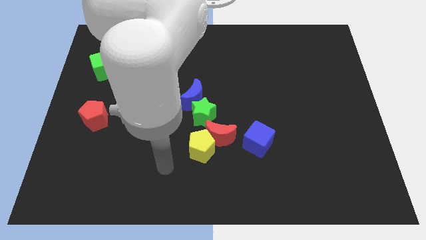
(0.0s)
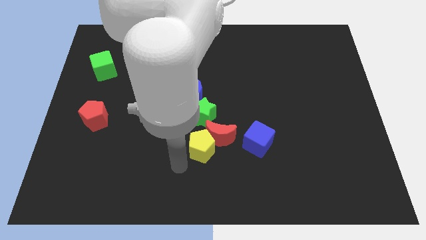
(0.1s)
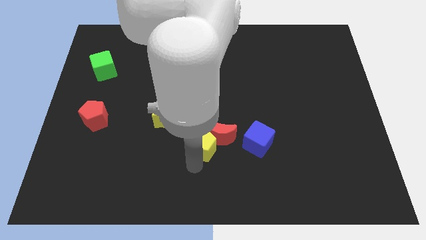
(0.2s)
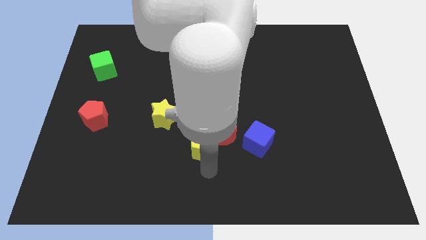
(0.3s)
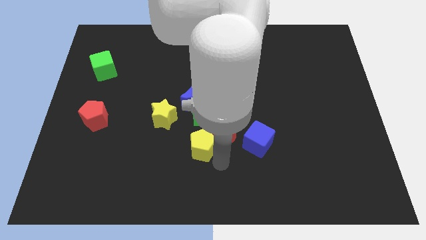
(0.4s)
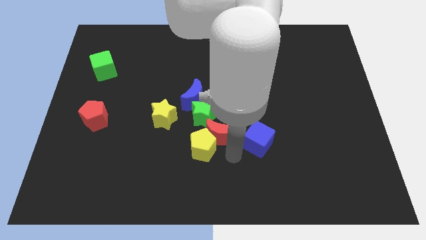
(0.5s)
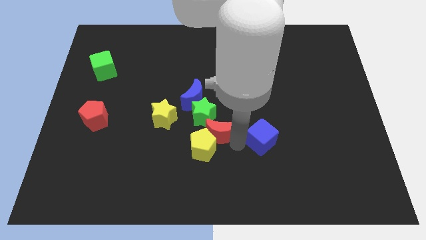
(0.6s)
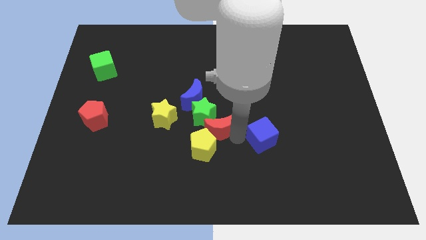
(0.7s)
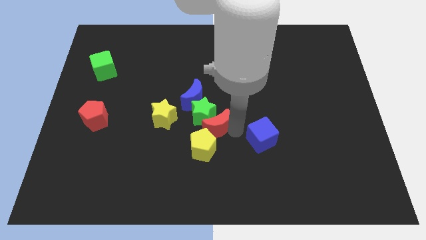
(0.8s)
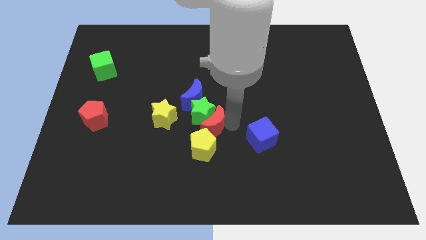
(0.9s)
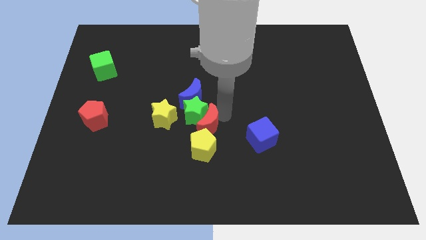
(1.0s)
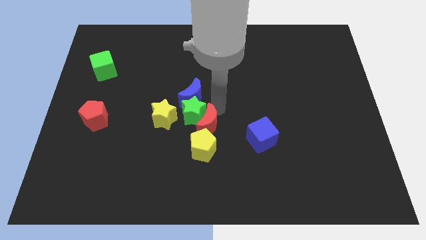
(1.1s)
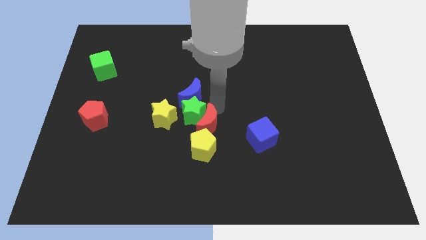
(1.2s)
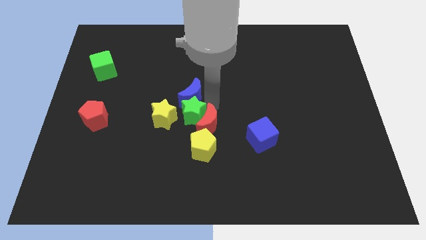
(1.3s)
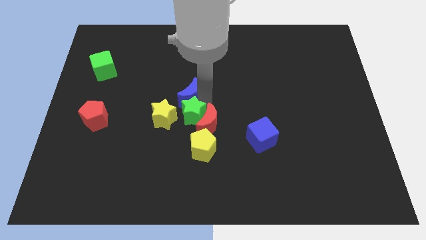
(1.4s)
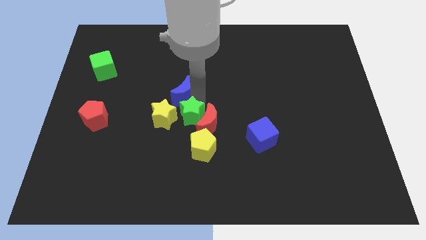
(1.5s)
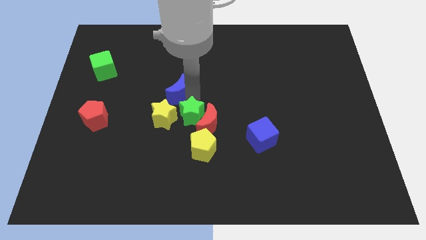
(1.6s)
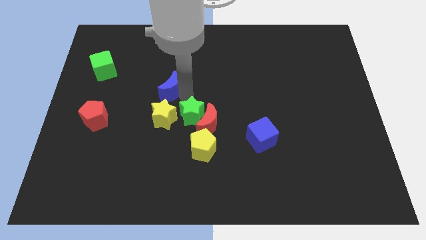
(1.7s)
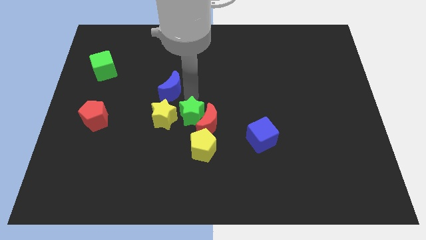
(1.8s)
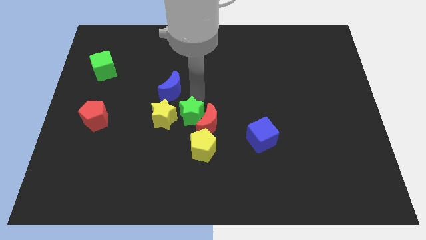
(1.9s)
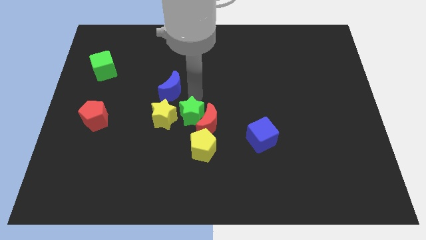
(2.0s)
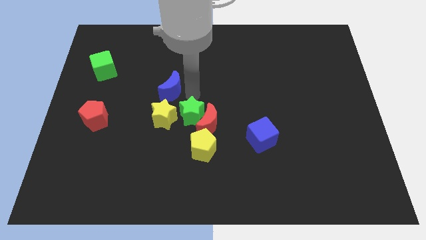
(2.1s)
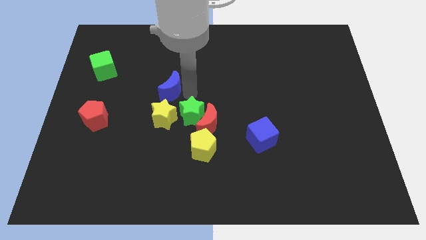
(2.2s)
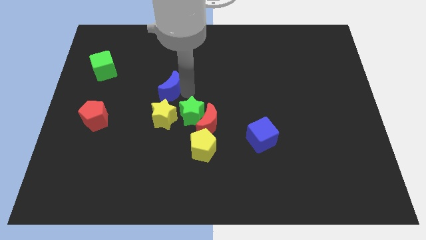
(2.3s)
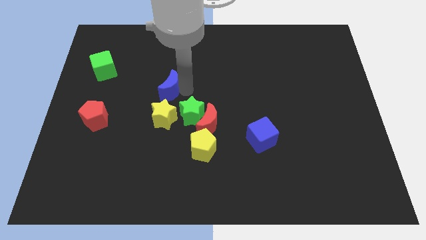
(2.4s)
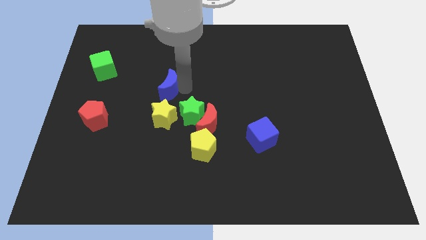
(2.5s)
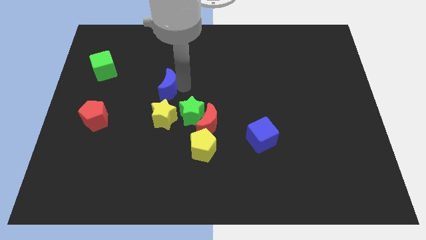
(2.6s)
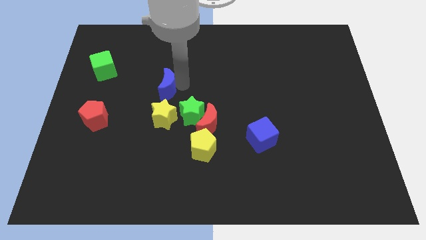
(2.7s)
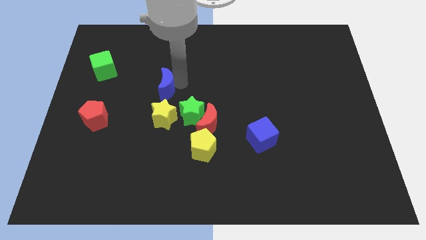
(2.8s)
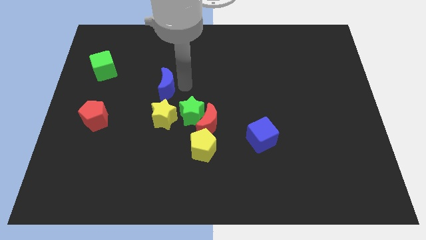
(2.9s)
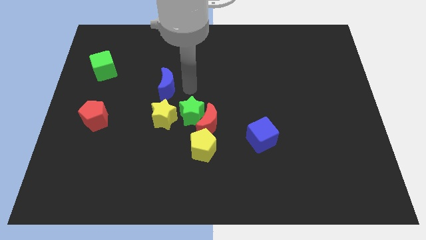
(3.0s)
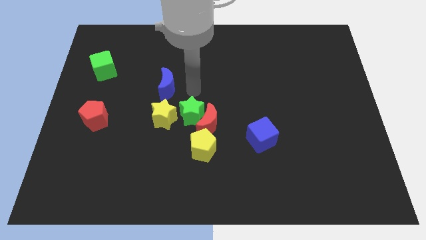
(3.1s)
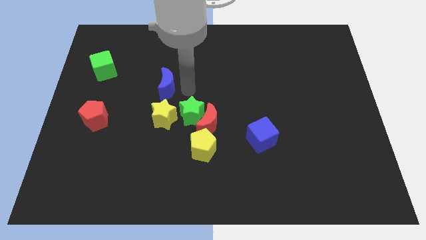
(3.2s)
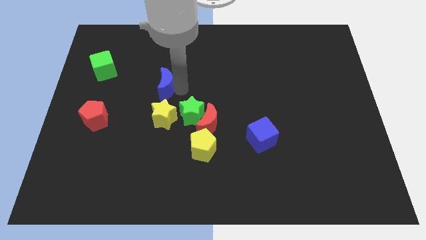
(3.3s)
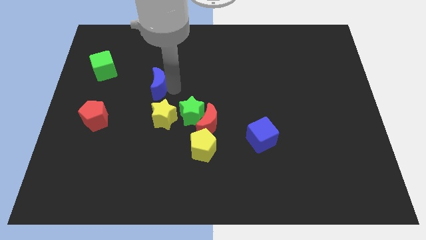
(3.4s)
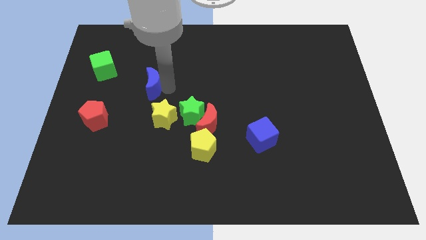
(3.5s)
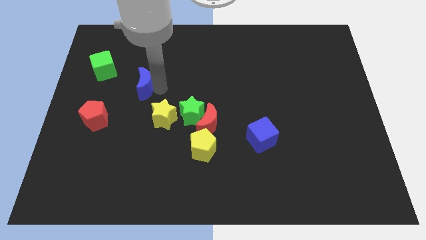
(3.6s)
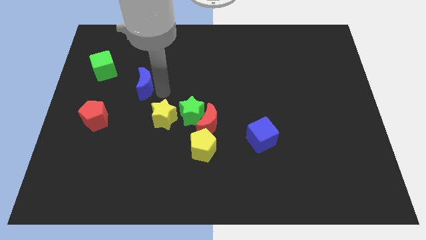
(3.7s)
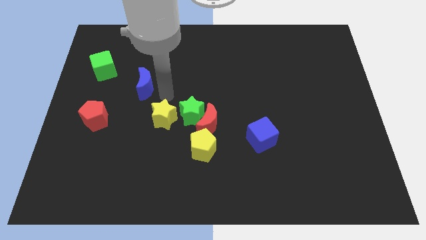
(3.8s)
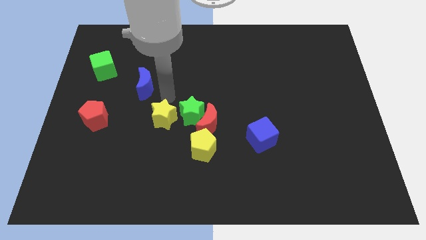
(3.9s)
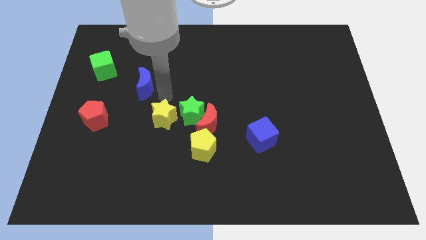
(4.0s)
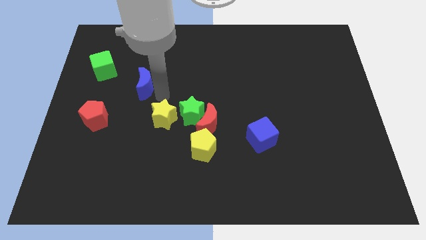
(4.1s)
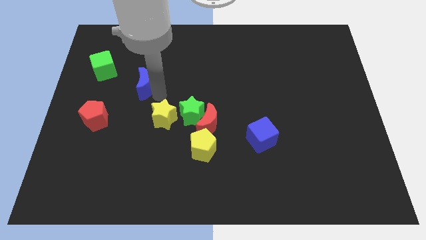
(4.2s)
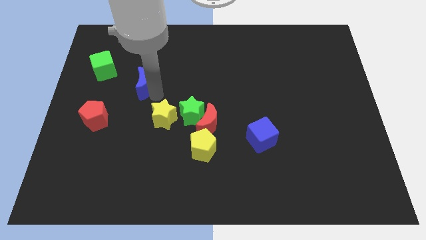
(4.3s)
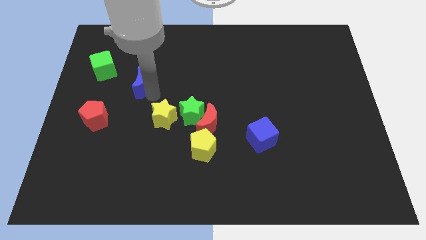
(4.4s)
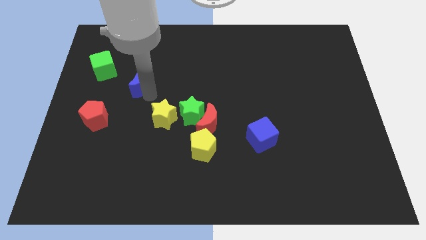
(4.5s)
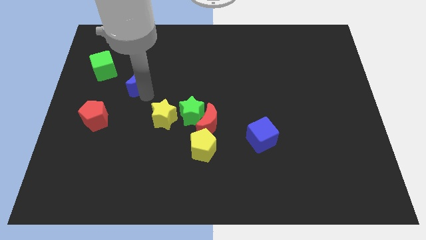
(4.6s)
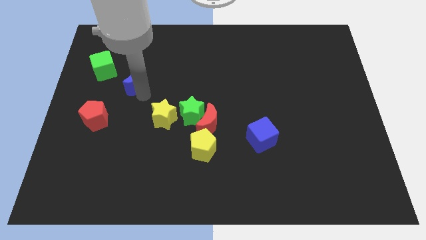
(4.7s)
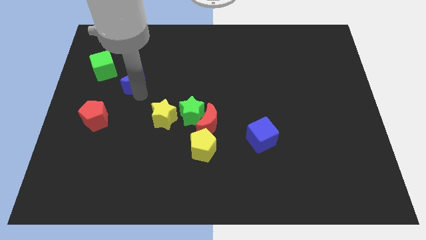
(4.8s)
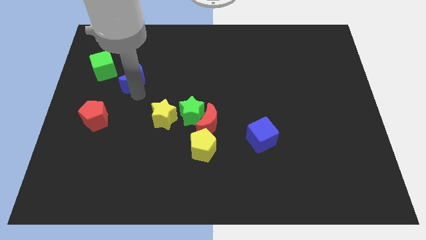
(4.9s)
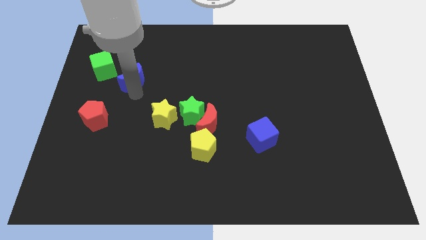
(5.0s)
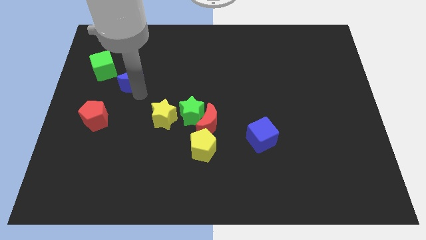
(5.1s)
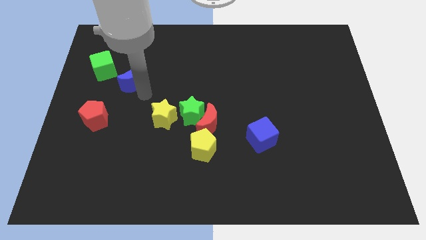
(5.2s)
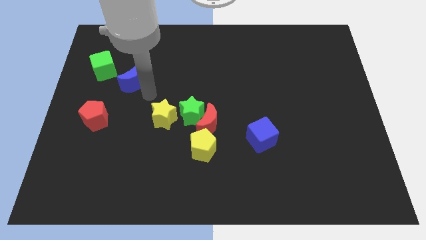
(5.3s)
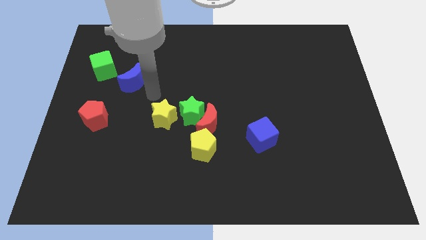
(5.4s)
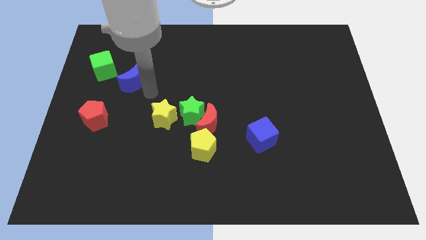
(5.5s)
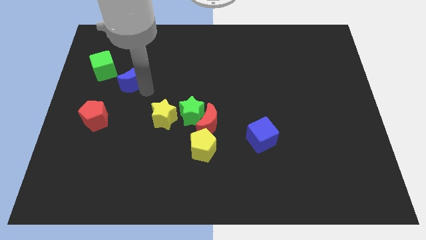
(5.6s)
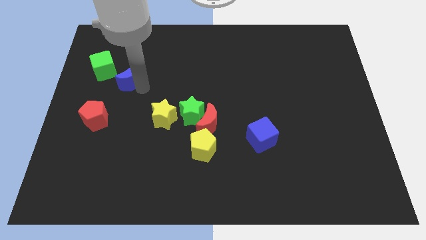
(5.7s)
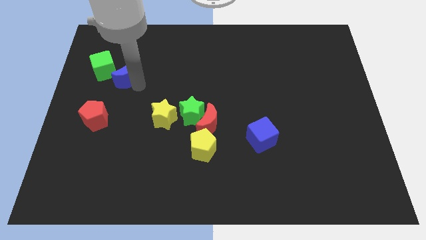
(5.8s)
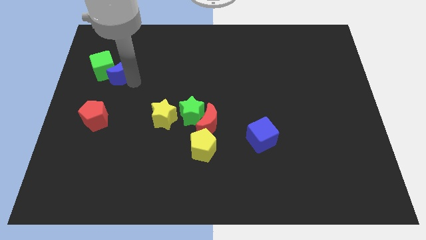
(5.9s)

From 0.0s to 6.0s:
move the blue moon towards the green cube
